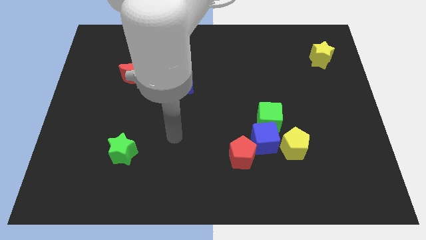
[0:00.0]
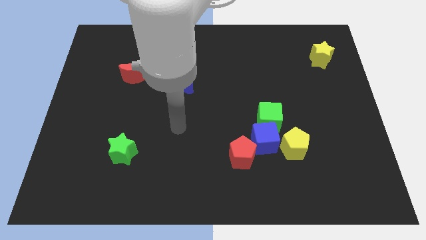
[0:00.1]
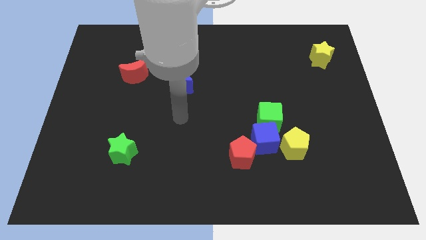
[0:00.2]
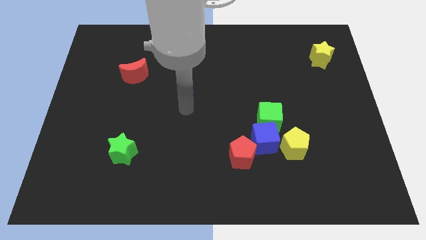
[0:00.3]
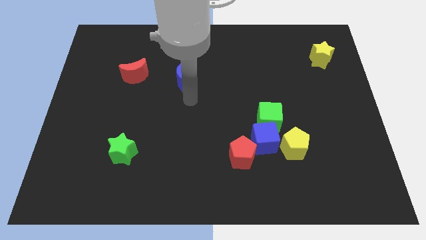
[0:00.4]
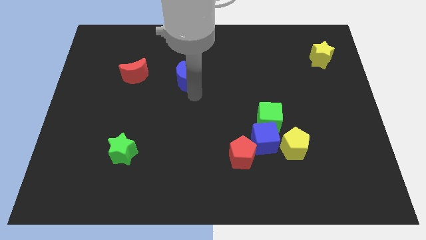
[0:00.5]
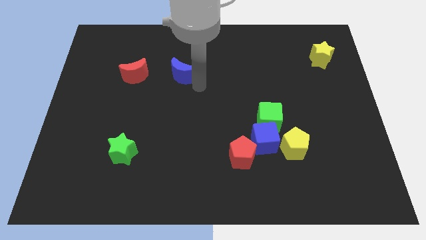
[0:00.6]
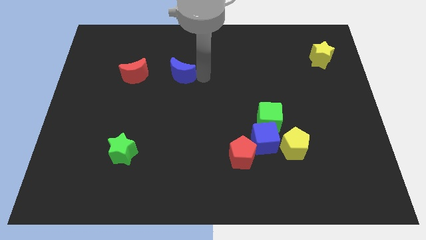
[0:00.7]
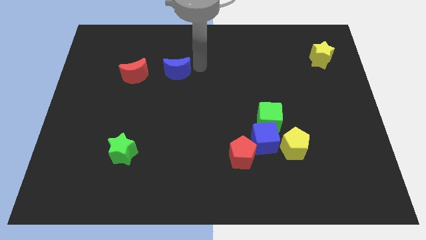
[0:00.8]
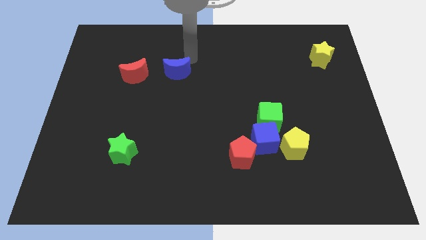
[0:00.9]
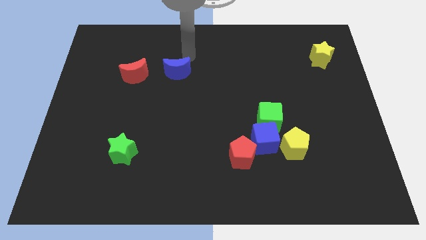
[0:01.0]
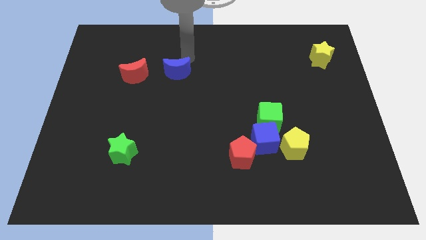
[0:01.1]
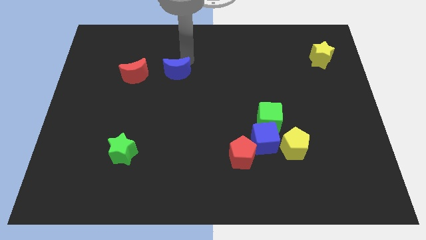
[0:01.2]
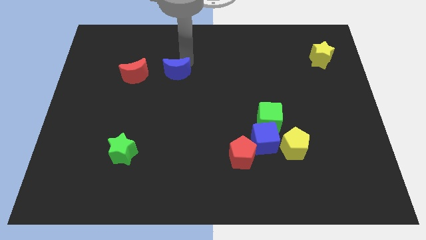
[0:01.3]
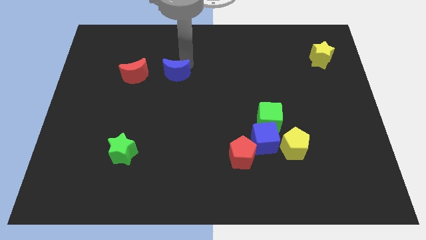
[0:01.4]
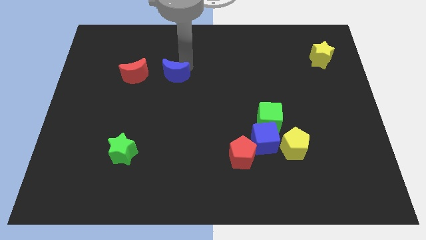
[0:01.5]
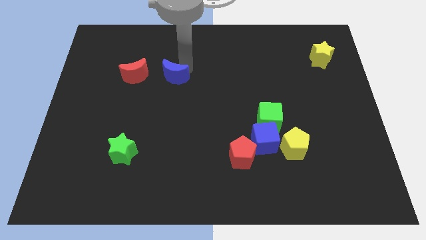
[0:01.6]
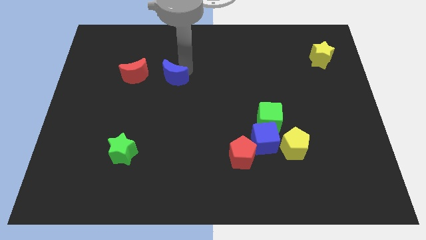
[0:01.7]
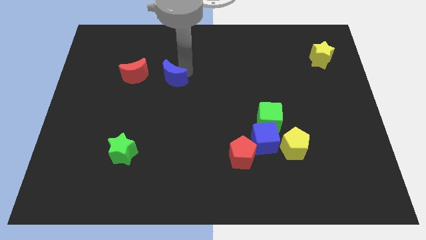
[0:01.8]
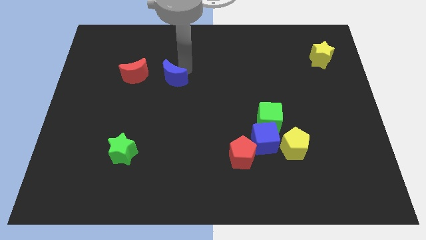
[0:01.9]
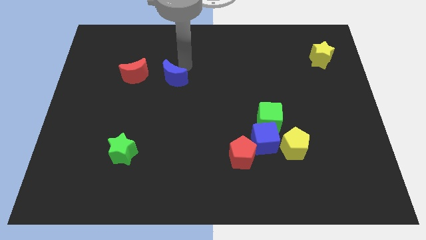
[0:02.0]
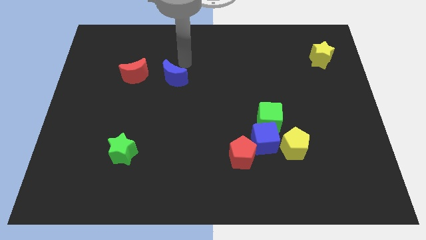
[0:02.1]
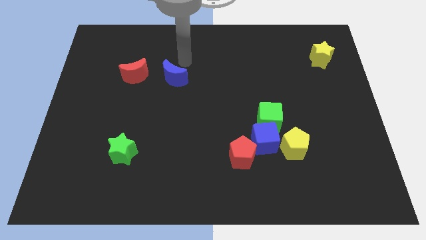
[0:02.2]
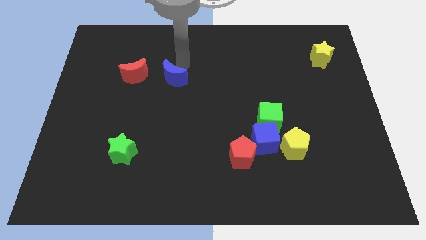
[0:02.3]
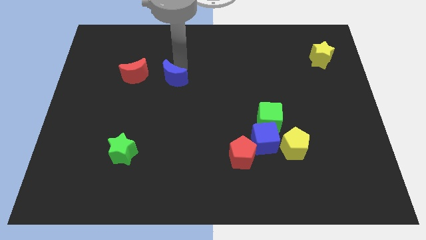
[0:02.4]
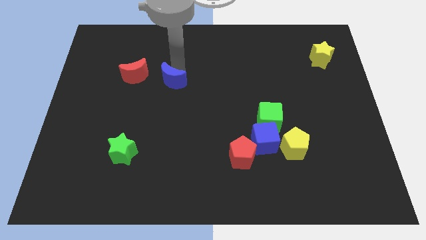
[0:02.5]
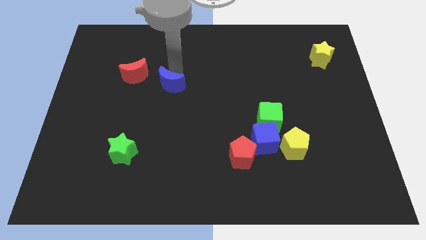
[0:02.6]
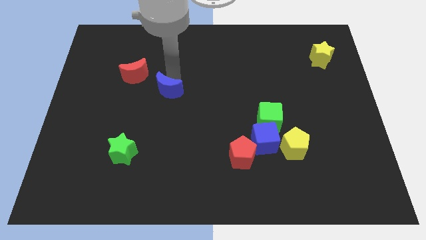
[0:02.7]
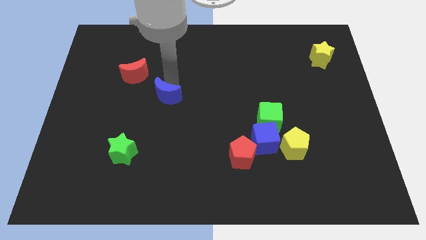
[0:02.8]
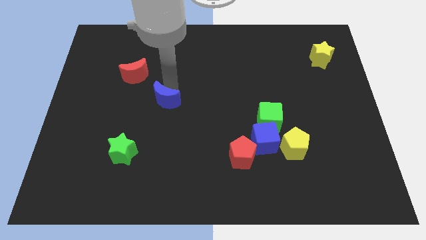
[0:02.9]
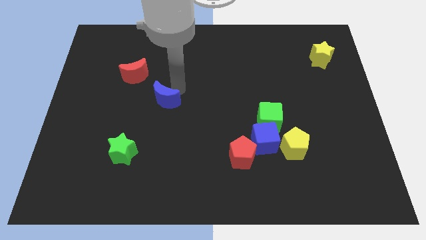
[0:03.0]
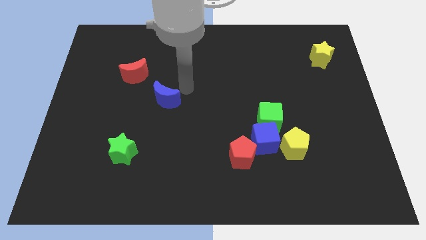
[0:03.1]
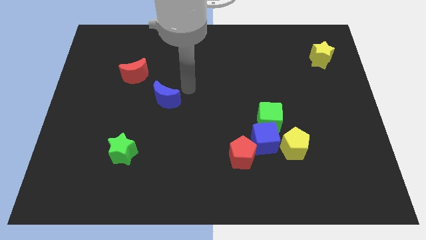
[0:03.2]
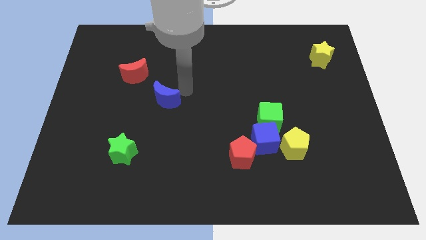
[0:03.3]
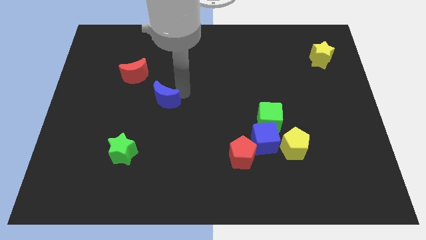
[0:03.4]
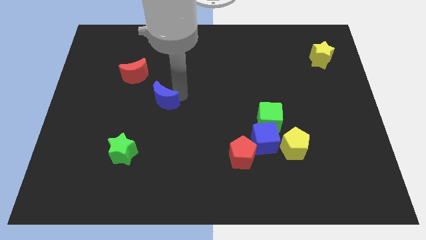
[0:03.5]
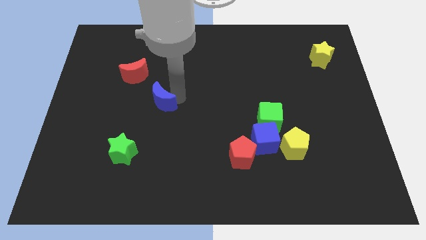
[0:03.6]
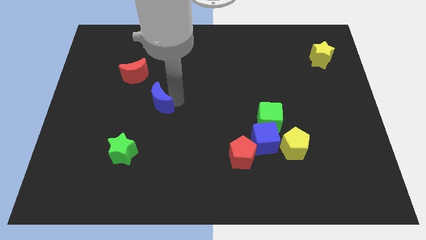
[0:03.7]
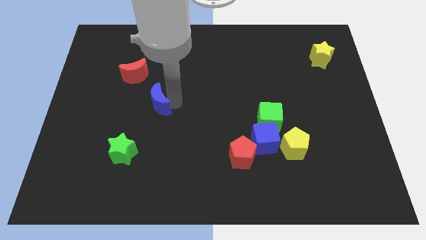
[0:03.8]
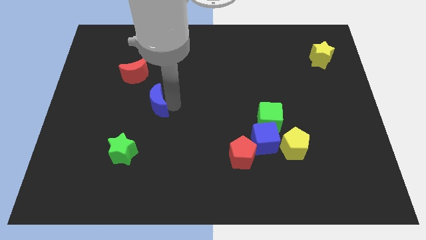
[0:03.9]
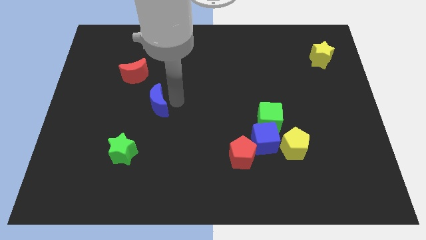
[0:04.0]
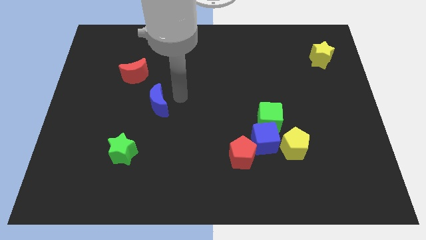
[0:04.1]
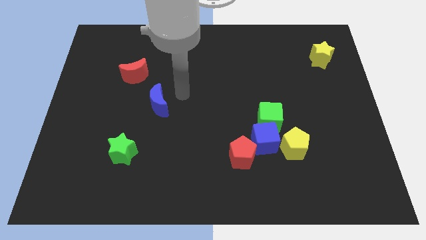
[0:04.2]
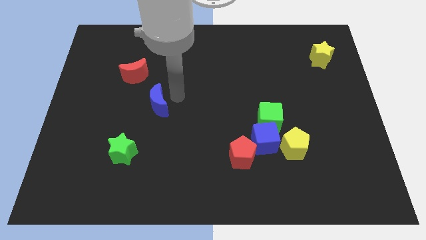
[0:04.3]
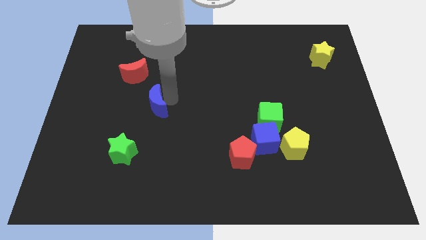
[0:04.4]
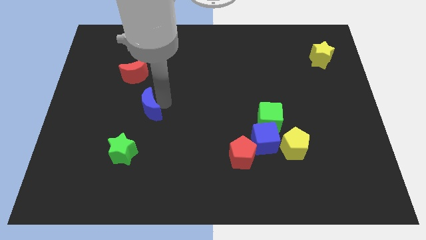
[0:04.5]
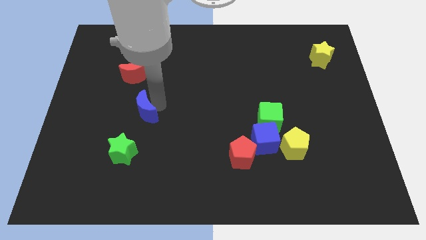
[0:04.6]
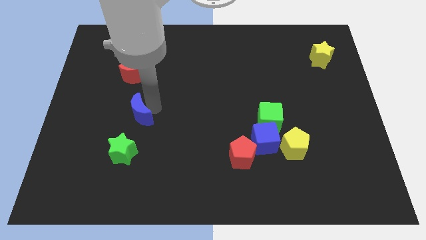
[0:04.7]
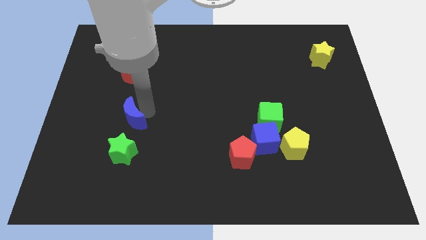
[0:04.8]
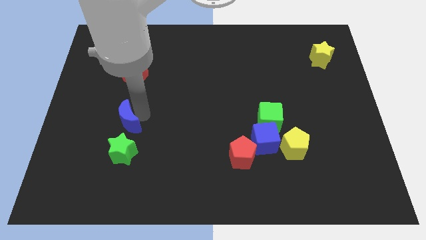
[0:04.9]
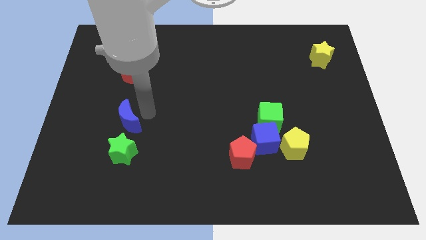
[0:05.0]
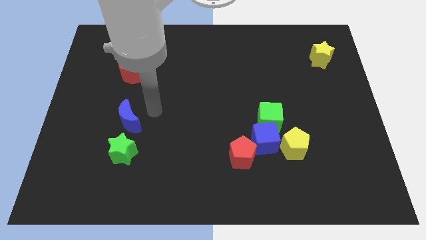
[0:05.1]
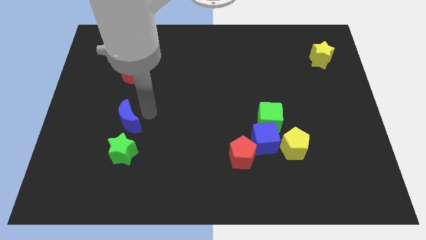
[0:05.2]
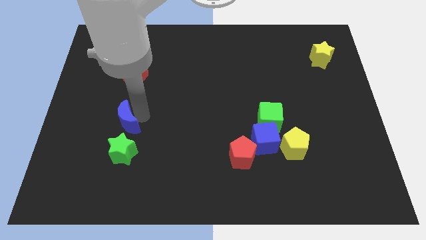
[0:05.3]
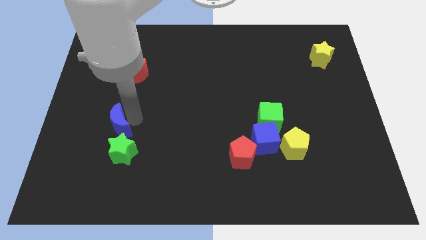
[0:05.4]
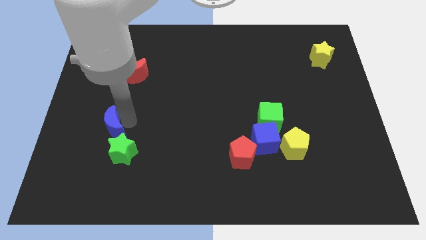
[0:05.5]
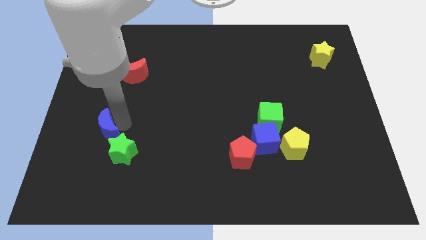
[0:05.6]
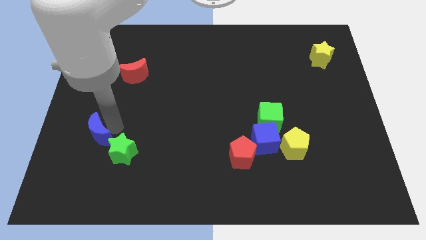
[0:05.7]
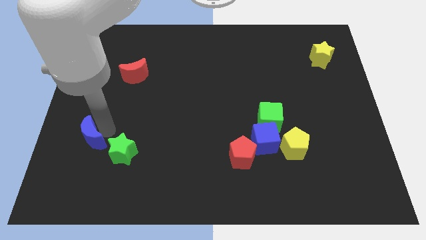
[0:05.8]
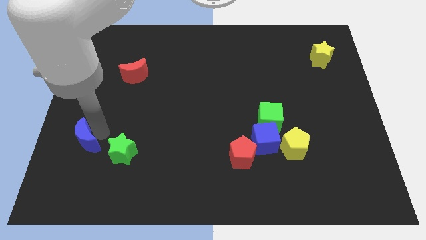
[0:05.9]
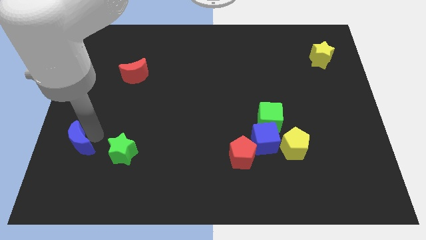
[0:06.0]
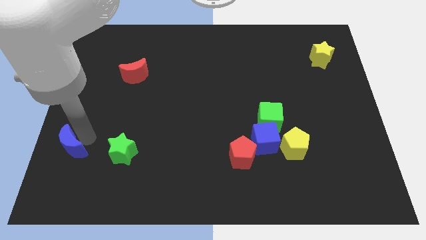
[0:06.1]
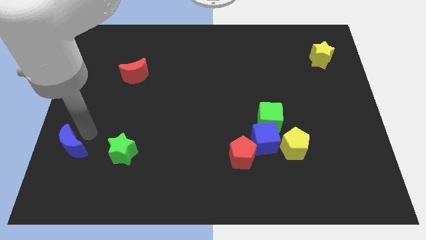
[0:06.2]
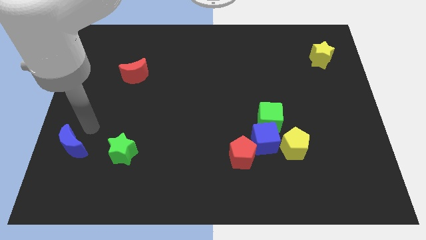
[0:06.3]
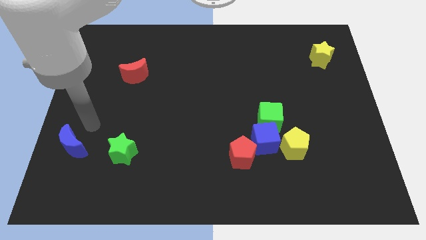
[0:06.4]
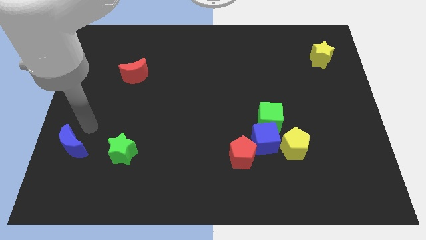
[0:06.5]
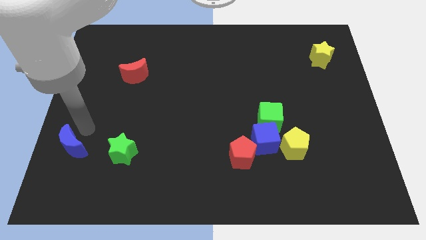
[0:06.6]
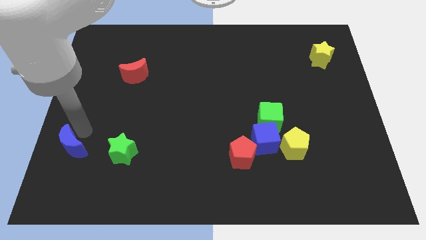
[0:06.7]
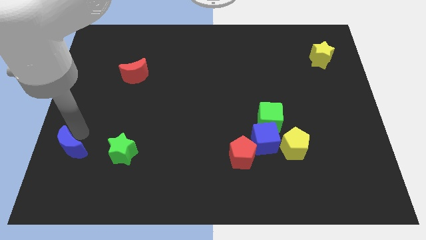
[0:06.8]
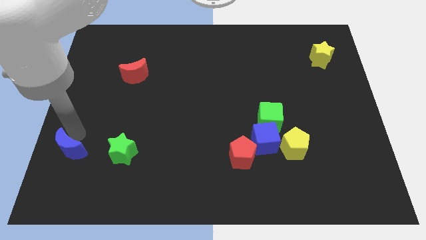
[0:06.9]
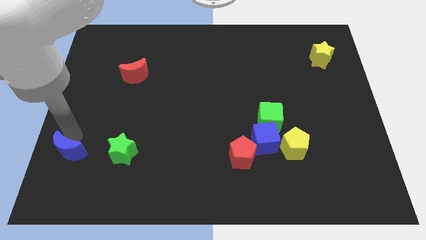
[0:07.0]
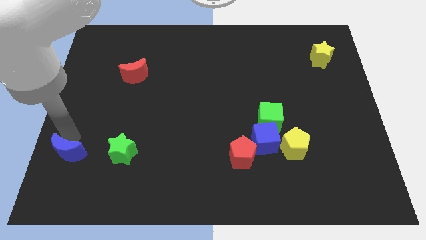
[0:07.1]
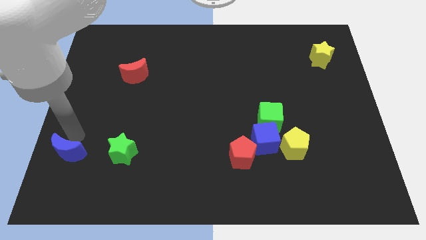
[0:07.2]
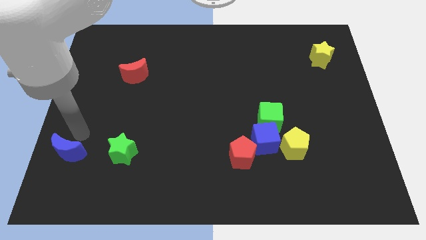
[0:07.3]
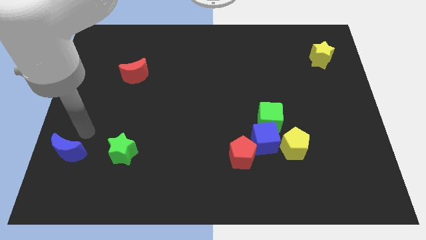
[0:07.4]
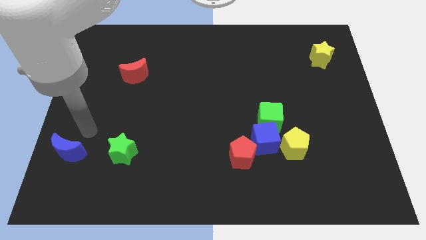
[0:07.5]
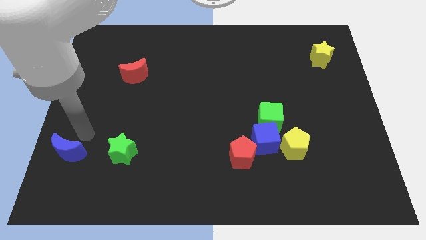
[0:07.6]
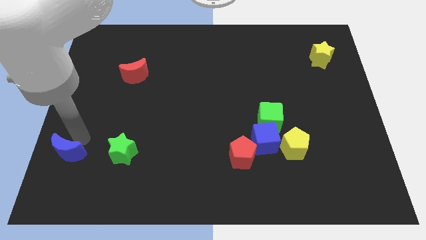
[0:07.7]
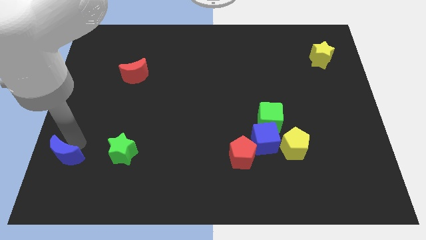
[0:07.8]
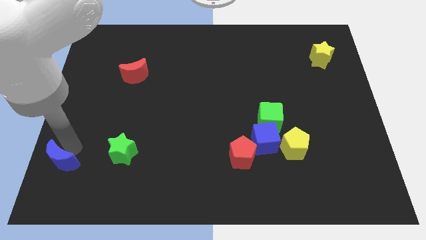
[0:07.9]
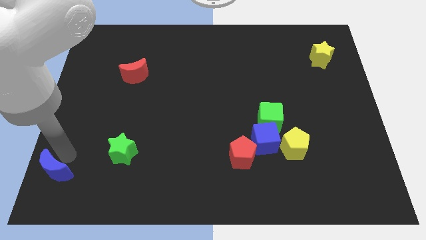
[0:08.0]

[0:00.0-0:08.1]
put the blue moon to the lower left corner
